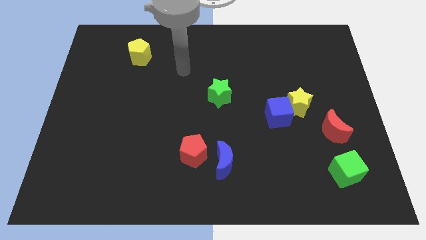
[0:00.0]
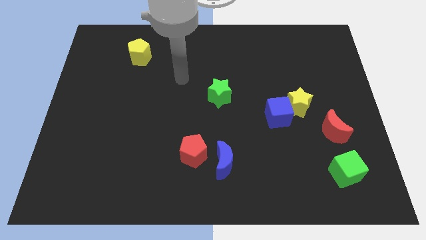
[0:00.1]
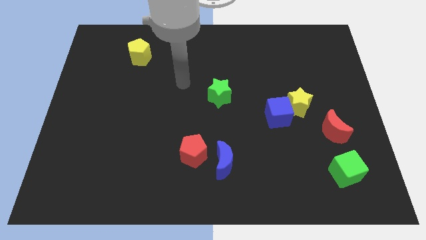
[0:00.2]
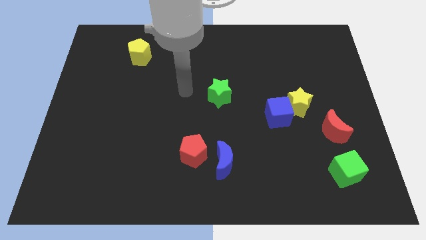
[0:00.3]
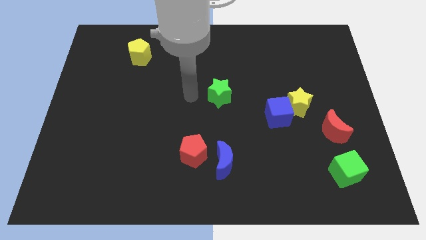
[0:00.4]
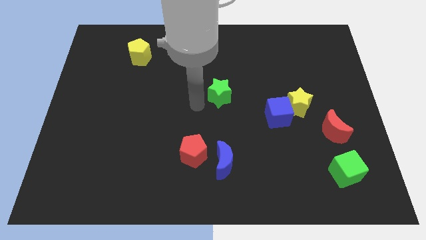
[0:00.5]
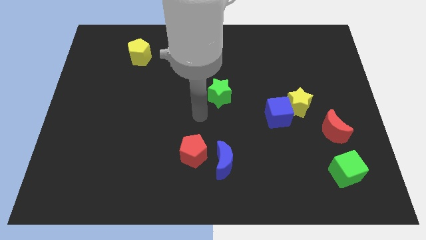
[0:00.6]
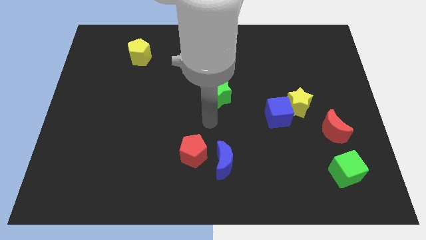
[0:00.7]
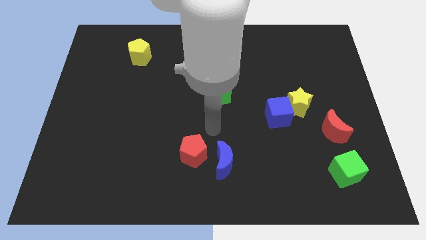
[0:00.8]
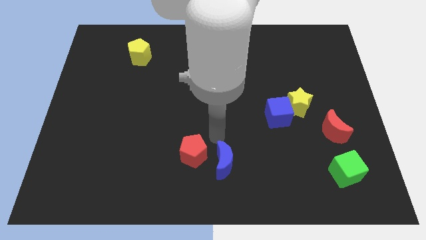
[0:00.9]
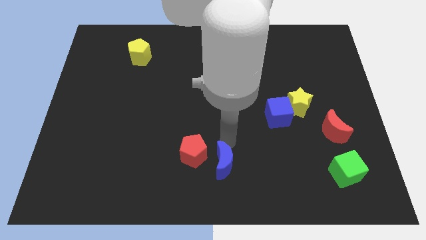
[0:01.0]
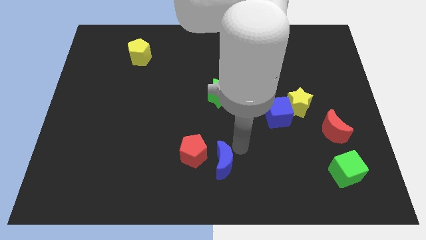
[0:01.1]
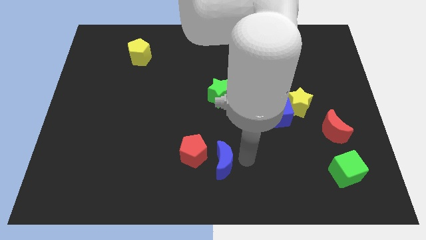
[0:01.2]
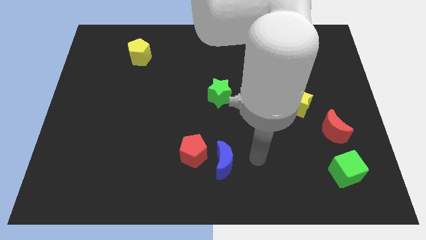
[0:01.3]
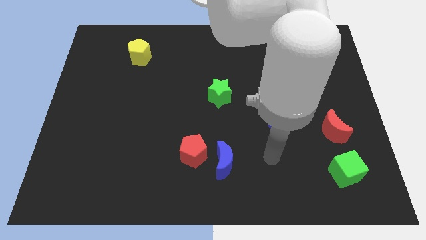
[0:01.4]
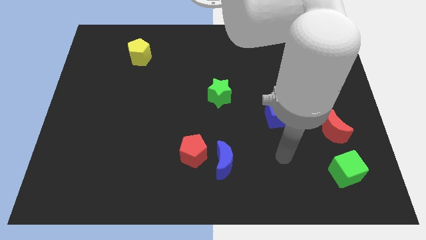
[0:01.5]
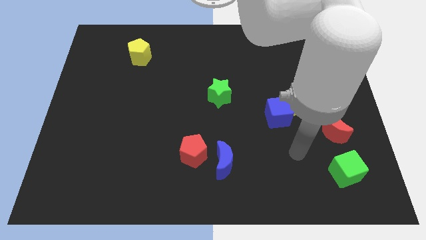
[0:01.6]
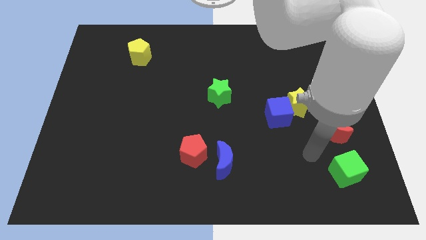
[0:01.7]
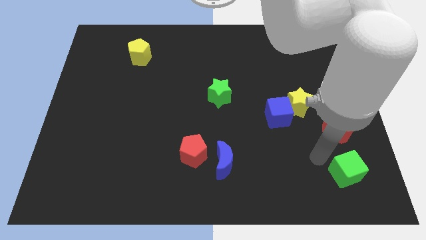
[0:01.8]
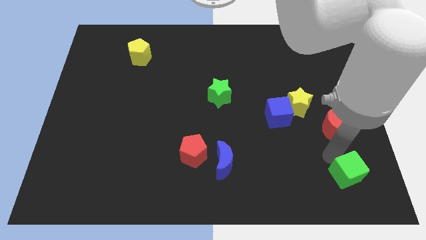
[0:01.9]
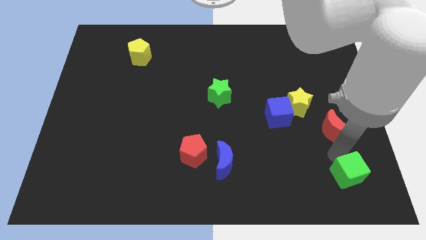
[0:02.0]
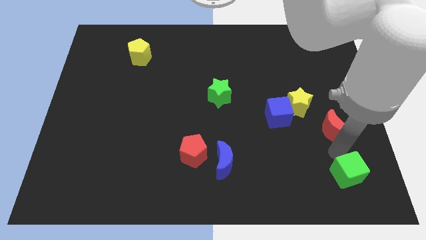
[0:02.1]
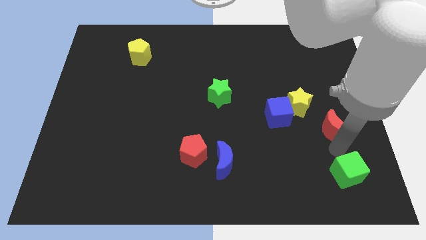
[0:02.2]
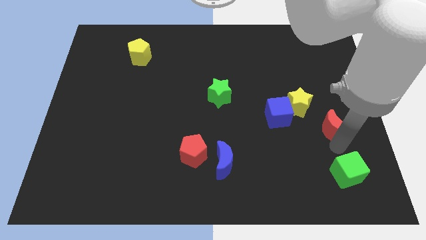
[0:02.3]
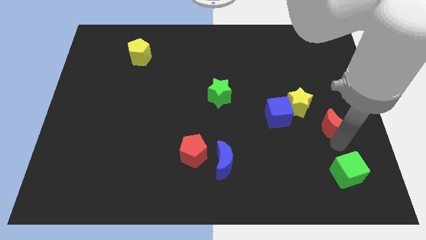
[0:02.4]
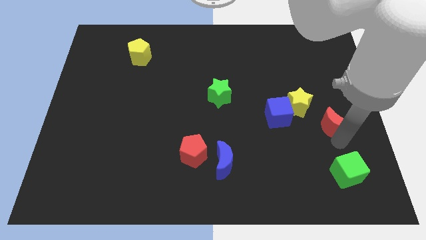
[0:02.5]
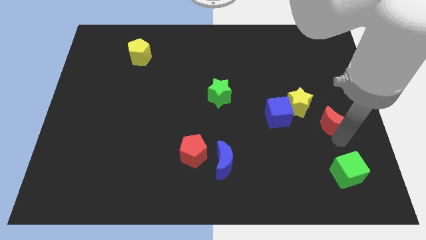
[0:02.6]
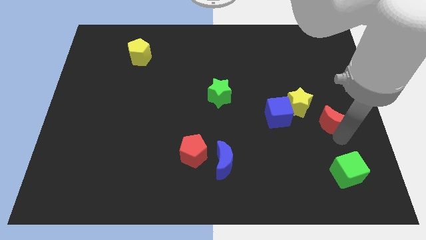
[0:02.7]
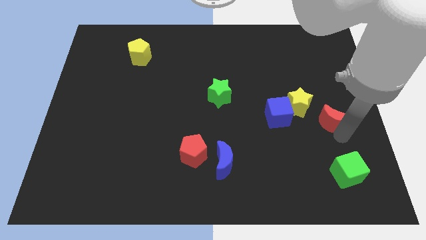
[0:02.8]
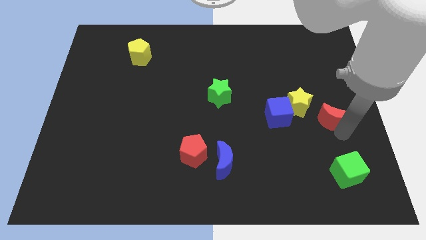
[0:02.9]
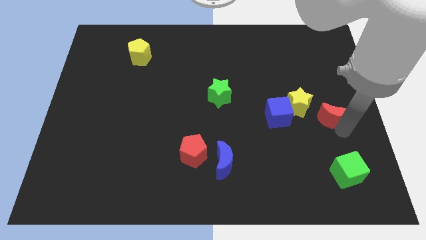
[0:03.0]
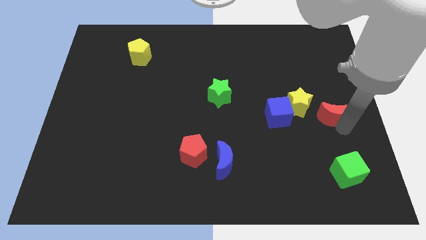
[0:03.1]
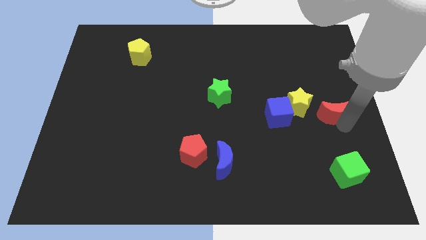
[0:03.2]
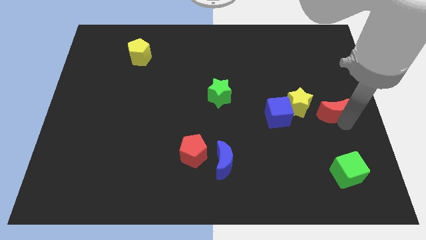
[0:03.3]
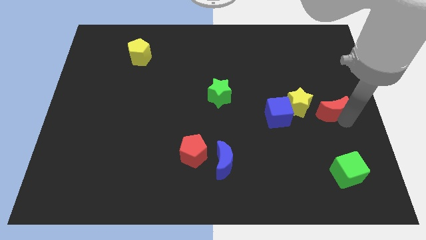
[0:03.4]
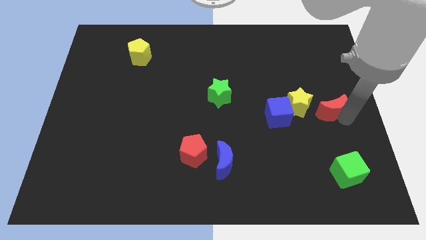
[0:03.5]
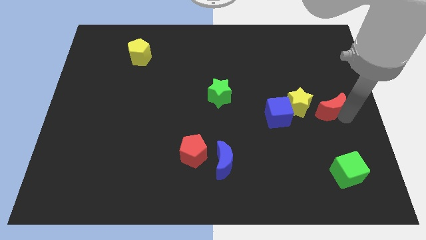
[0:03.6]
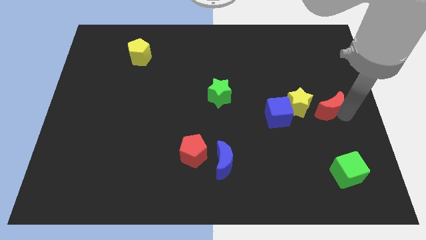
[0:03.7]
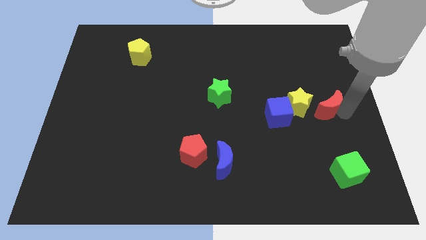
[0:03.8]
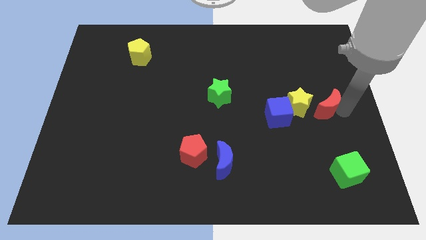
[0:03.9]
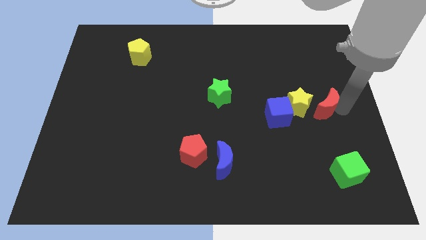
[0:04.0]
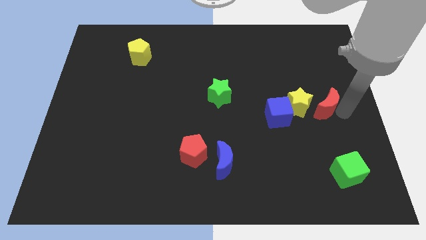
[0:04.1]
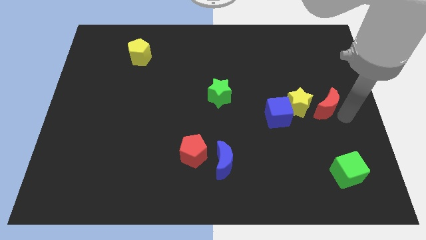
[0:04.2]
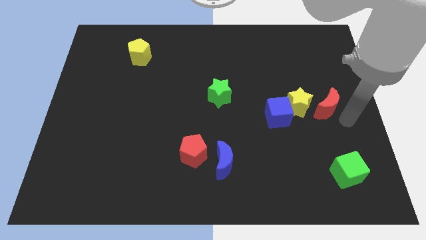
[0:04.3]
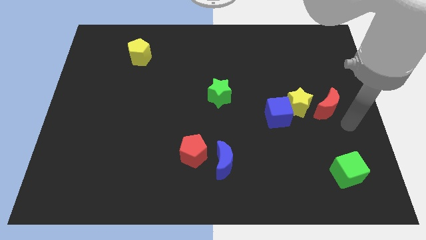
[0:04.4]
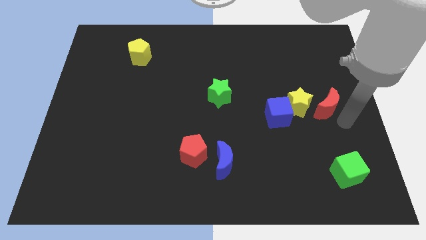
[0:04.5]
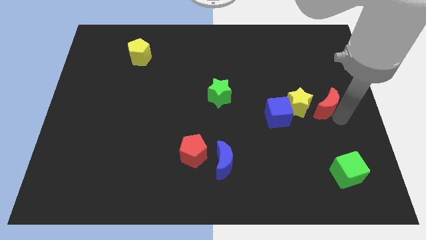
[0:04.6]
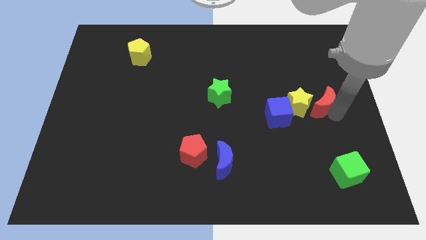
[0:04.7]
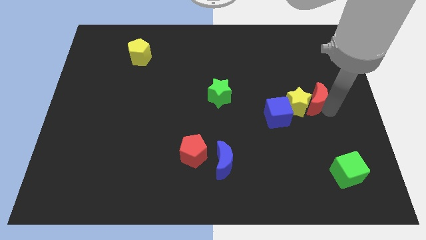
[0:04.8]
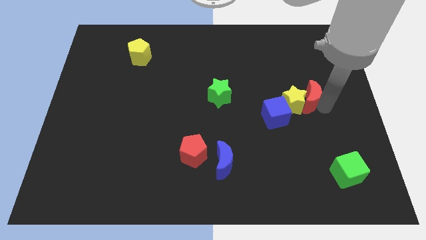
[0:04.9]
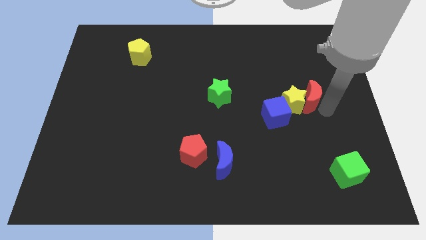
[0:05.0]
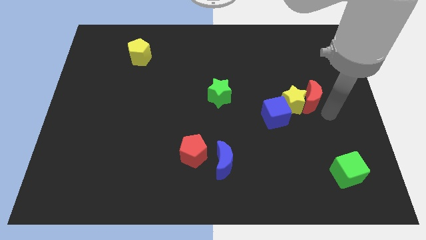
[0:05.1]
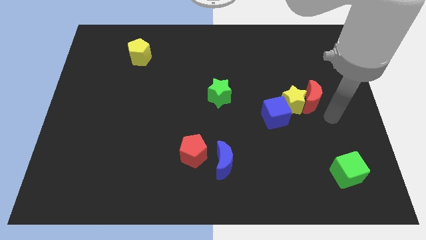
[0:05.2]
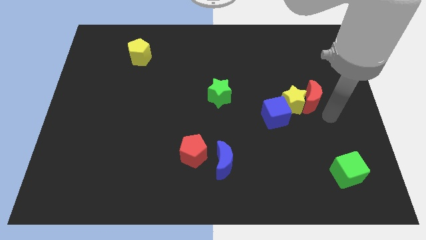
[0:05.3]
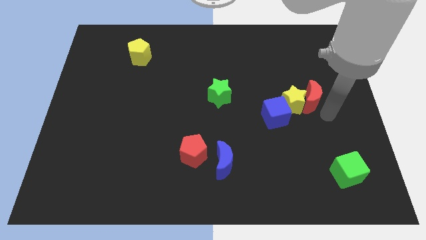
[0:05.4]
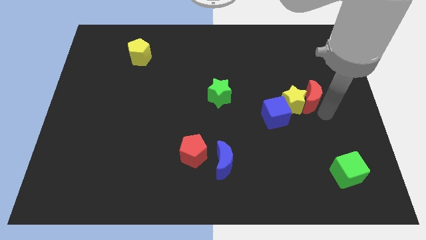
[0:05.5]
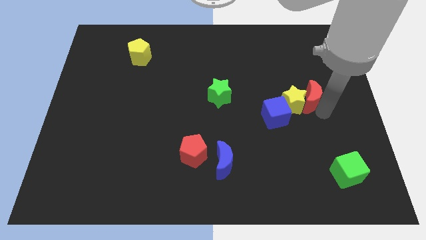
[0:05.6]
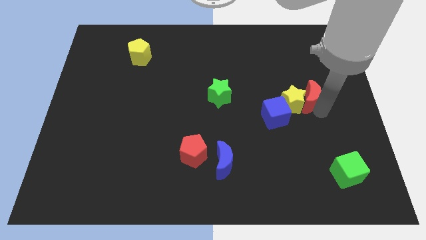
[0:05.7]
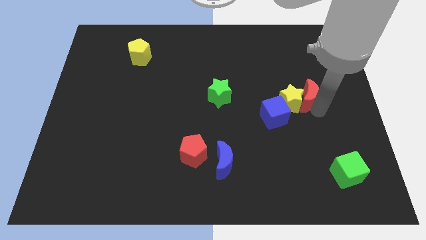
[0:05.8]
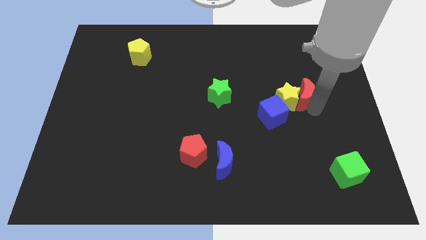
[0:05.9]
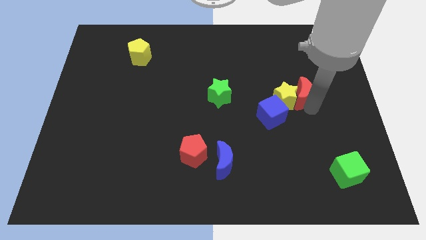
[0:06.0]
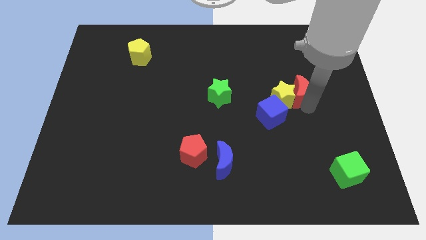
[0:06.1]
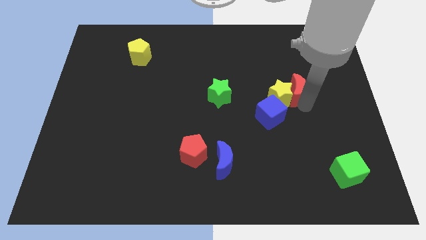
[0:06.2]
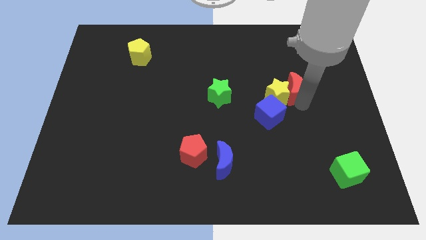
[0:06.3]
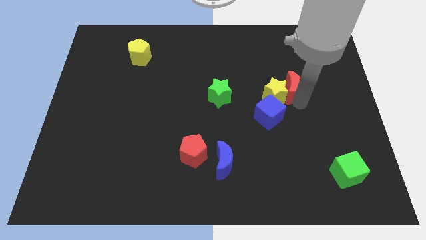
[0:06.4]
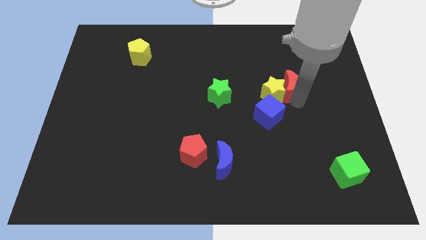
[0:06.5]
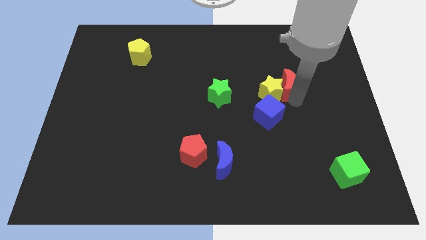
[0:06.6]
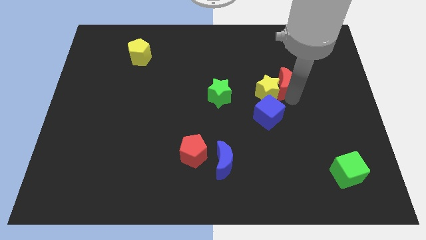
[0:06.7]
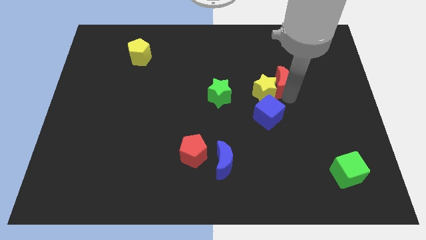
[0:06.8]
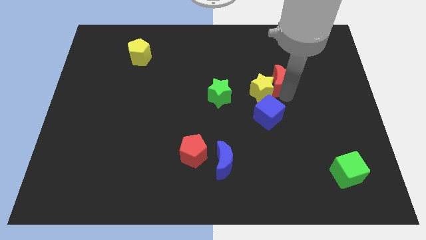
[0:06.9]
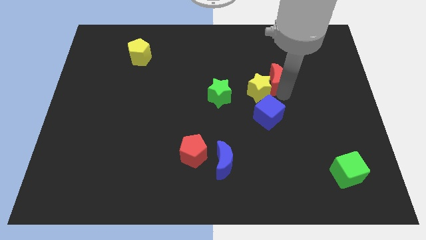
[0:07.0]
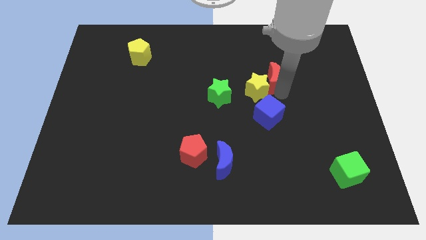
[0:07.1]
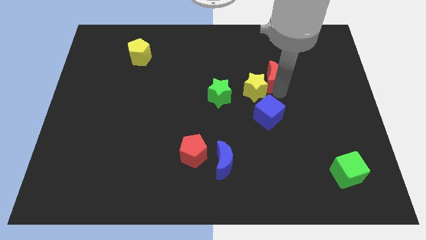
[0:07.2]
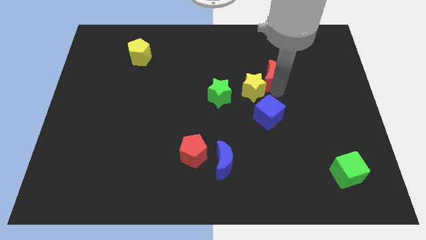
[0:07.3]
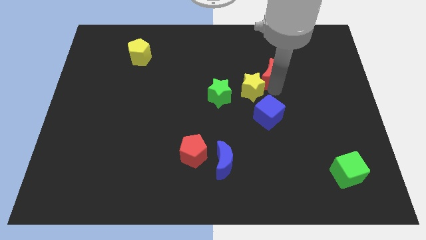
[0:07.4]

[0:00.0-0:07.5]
slide the red moon up and then left

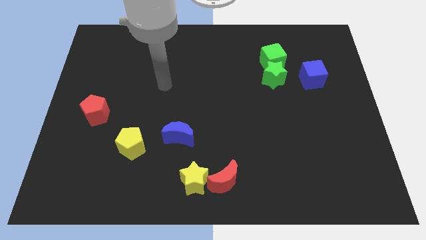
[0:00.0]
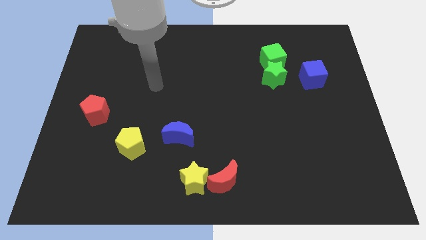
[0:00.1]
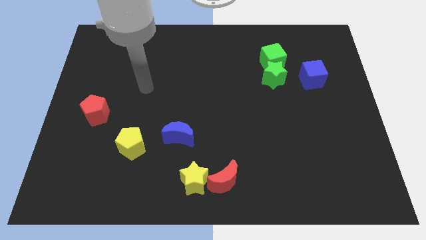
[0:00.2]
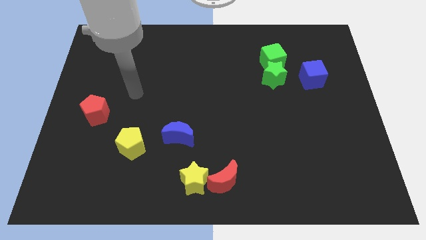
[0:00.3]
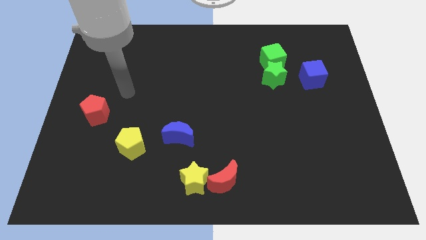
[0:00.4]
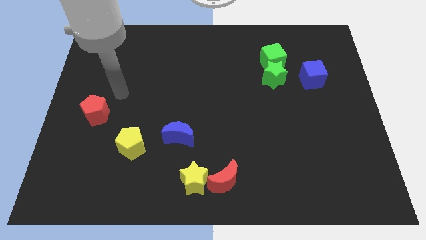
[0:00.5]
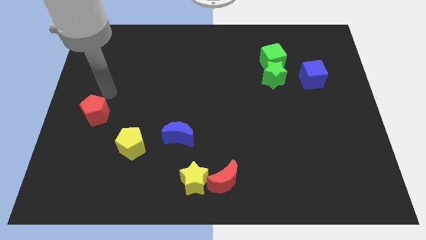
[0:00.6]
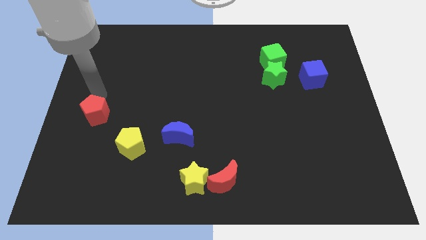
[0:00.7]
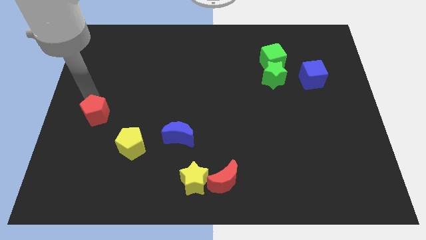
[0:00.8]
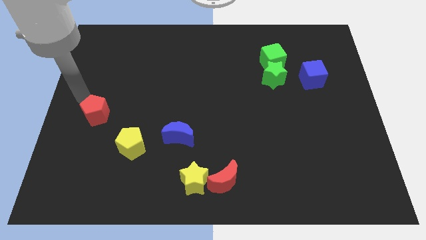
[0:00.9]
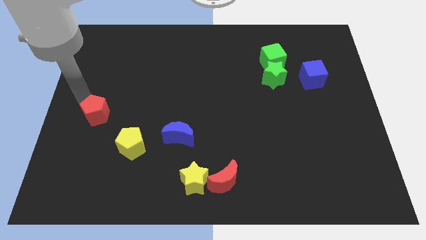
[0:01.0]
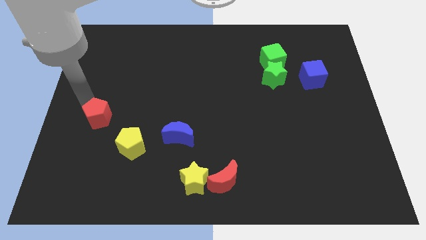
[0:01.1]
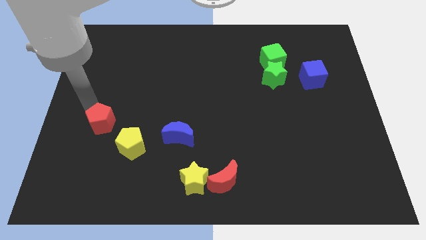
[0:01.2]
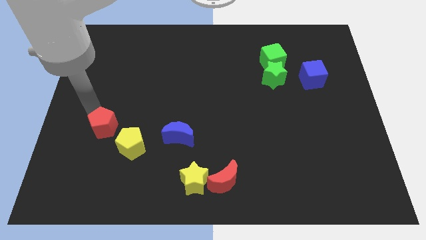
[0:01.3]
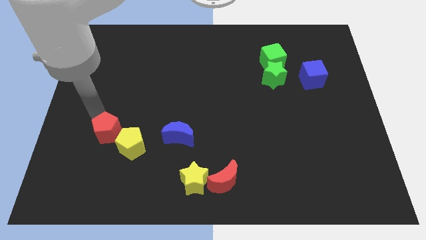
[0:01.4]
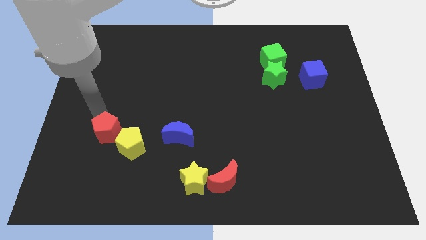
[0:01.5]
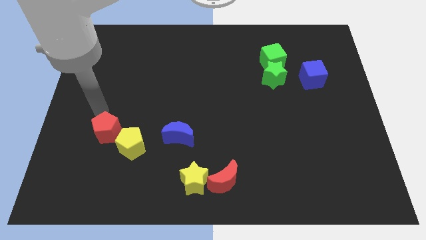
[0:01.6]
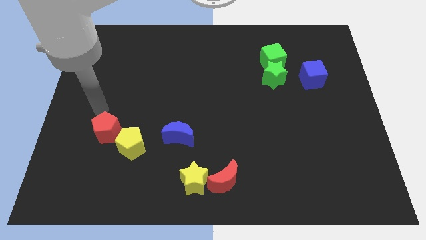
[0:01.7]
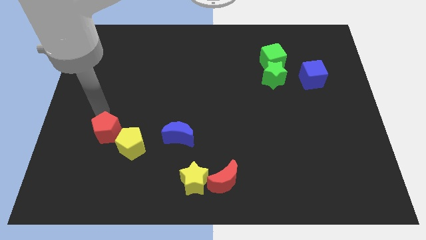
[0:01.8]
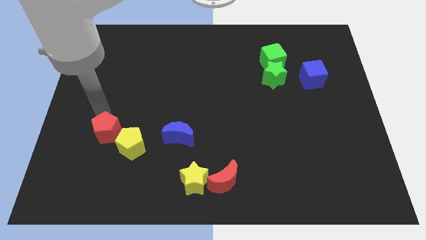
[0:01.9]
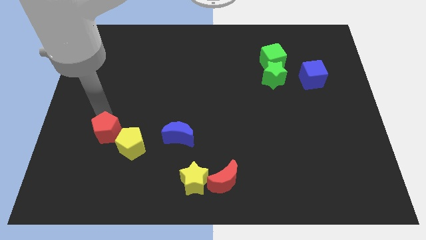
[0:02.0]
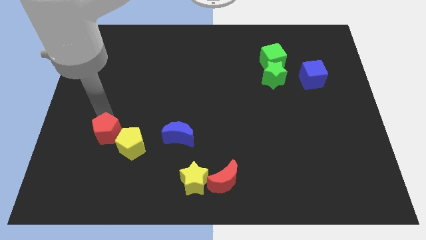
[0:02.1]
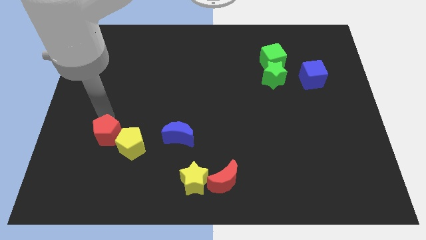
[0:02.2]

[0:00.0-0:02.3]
slide the red pentagon somewhat down and right
